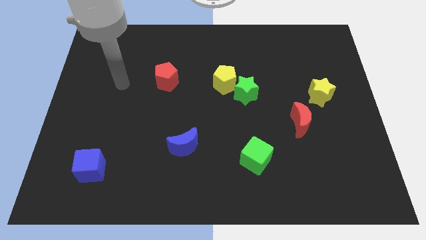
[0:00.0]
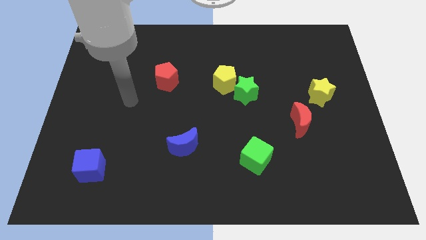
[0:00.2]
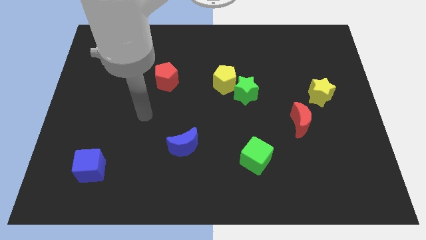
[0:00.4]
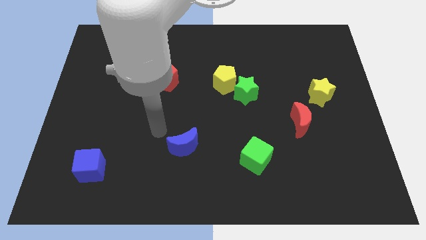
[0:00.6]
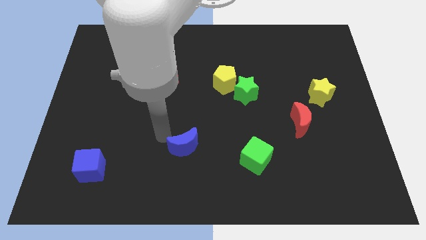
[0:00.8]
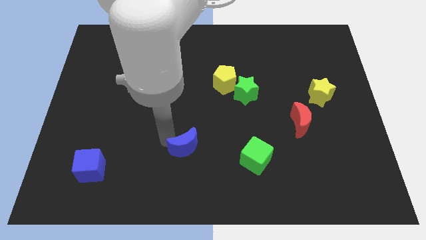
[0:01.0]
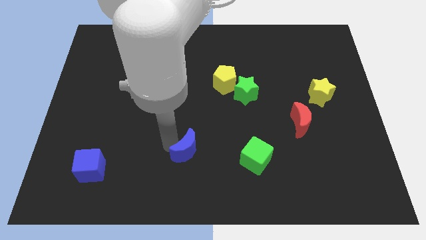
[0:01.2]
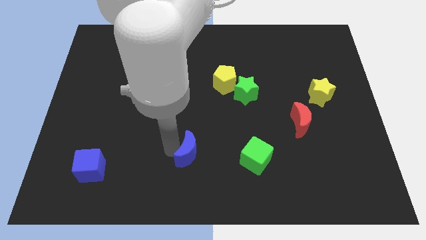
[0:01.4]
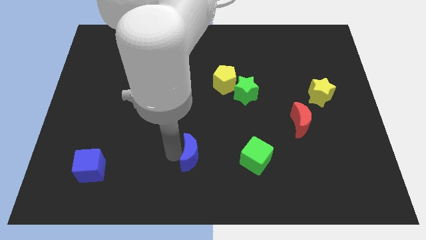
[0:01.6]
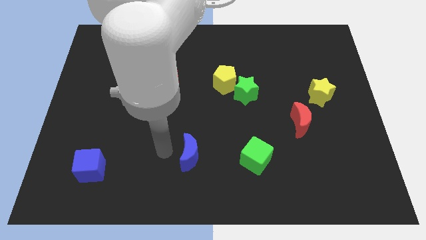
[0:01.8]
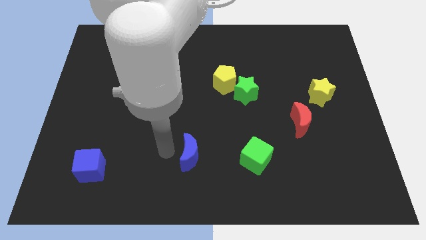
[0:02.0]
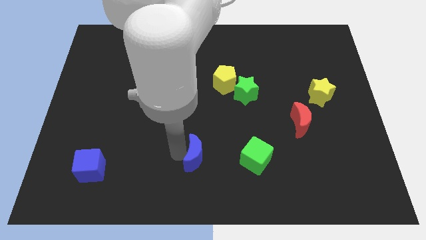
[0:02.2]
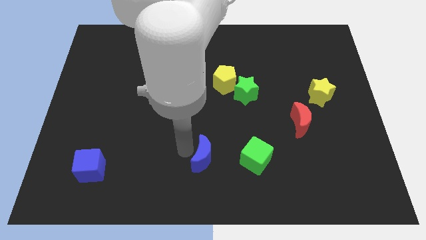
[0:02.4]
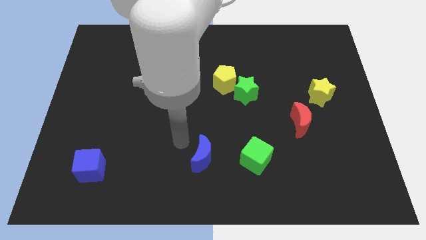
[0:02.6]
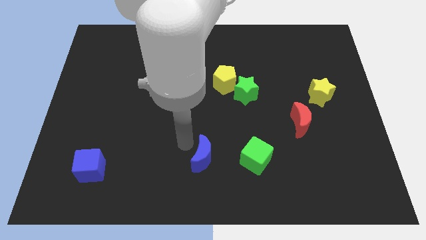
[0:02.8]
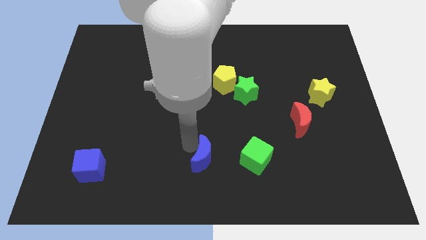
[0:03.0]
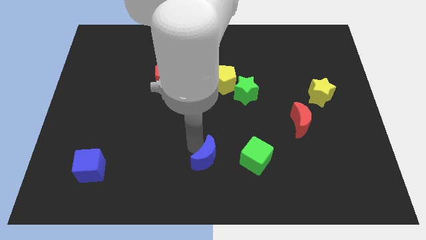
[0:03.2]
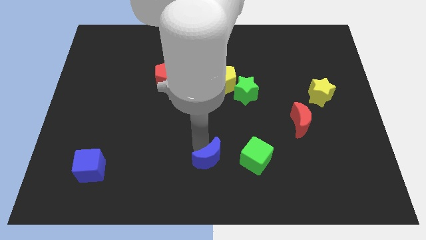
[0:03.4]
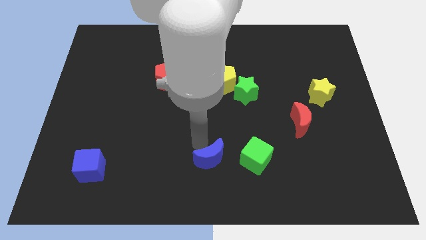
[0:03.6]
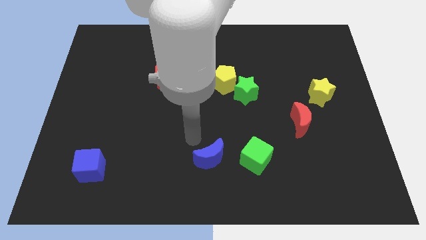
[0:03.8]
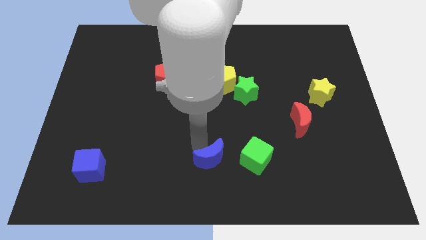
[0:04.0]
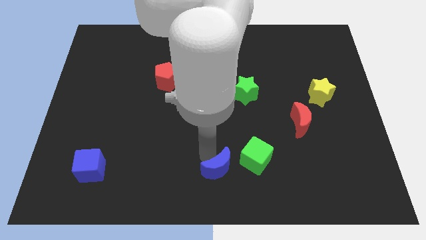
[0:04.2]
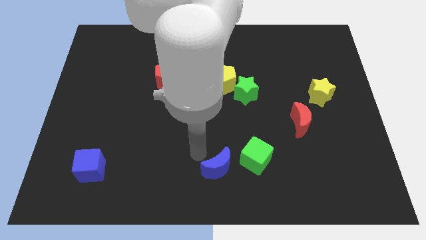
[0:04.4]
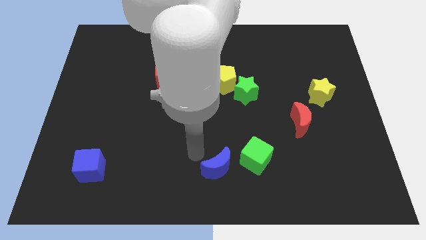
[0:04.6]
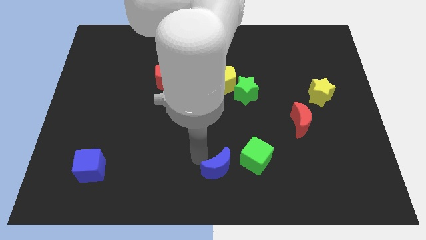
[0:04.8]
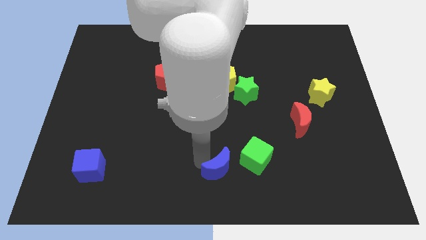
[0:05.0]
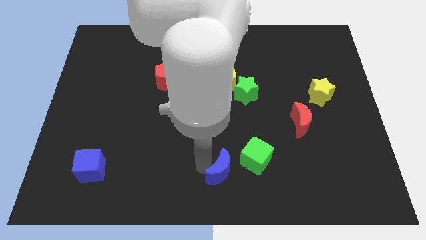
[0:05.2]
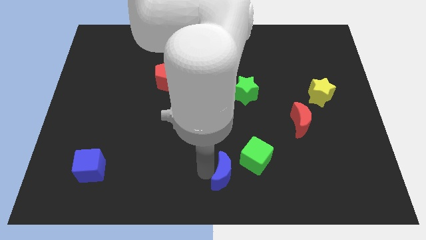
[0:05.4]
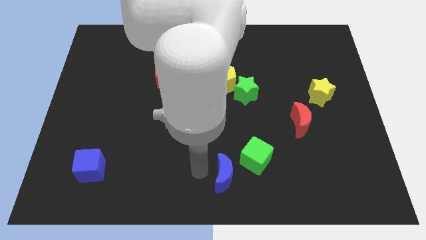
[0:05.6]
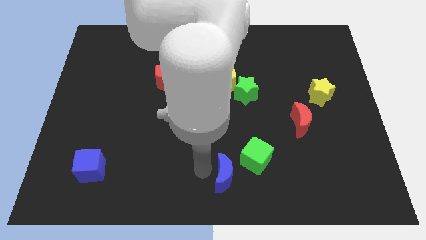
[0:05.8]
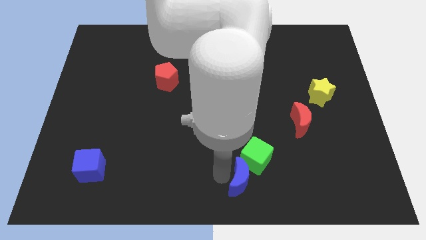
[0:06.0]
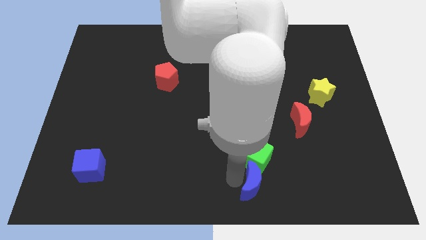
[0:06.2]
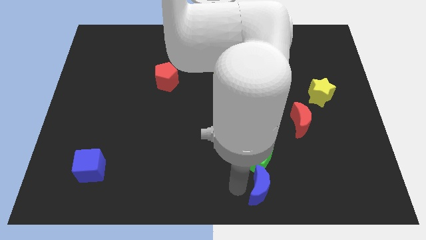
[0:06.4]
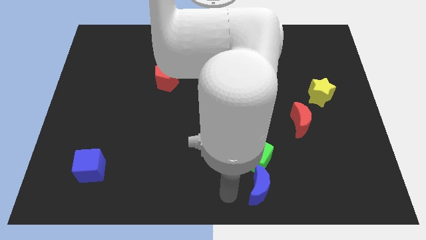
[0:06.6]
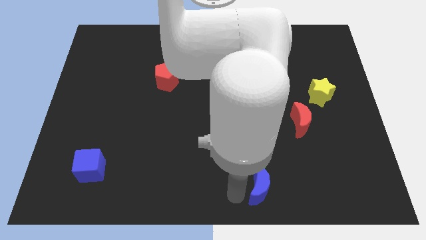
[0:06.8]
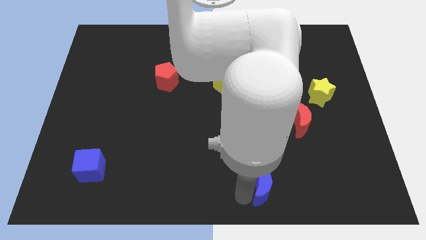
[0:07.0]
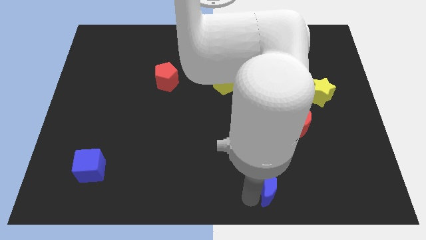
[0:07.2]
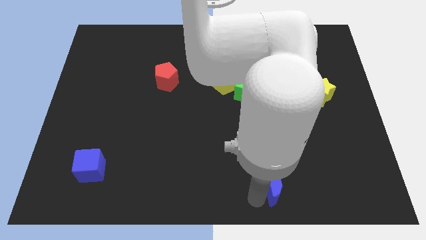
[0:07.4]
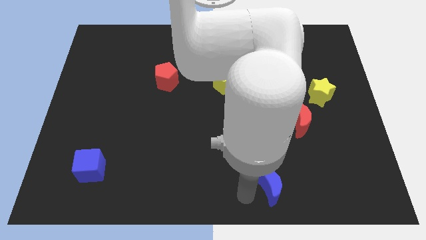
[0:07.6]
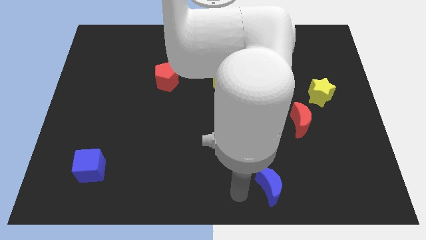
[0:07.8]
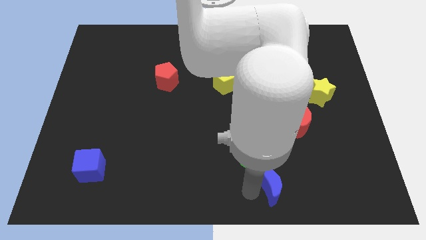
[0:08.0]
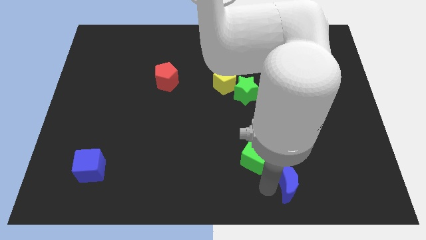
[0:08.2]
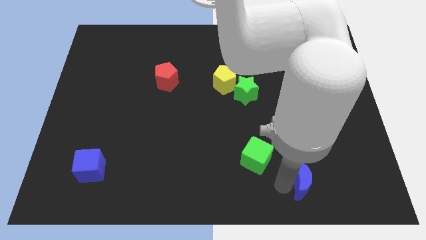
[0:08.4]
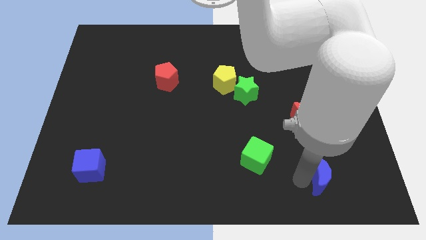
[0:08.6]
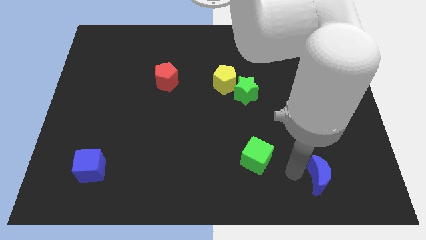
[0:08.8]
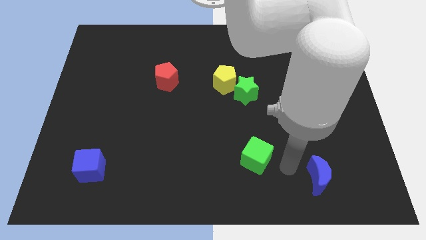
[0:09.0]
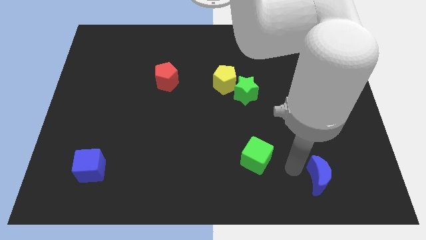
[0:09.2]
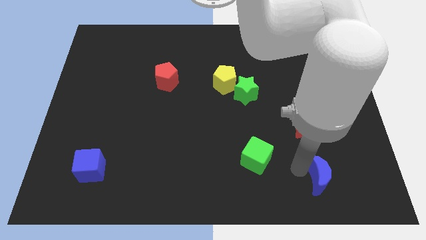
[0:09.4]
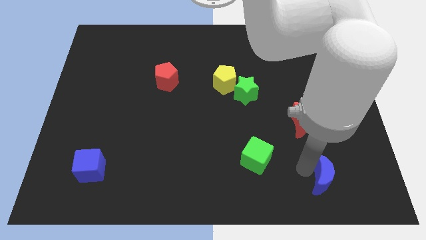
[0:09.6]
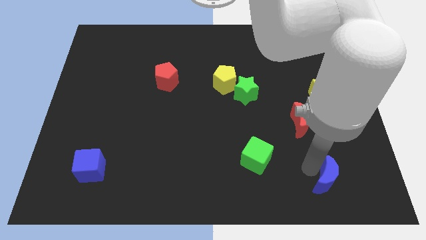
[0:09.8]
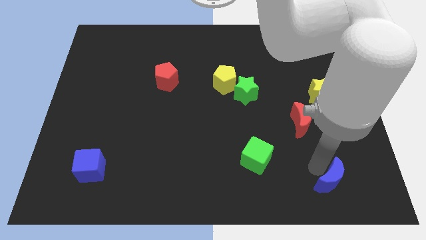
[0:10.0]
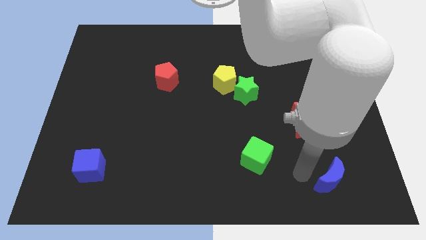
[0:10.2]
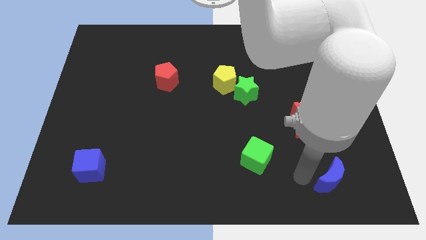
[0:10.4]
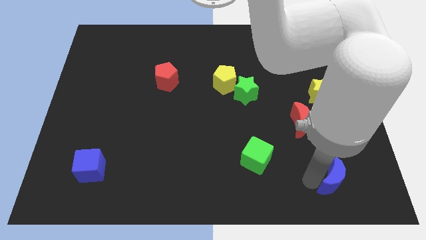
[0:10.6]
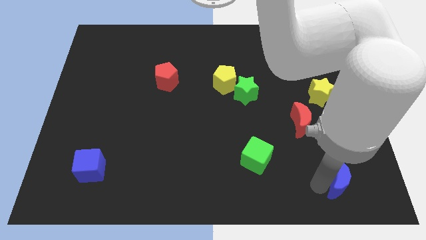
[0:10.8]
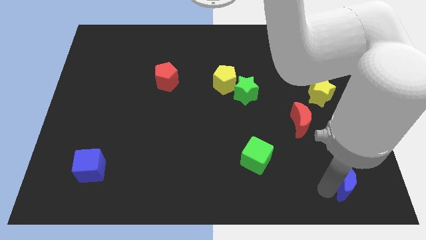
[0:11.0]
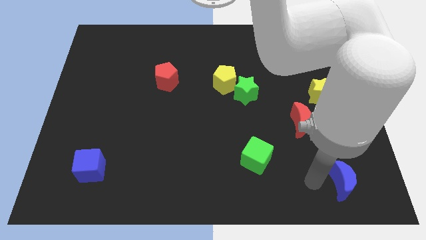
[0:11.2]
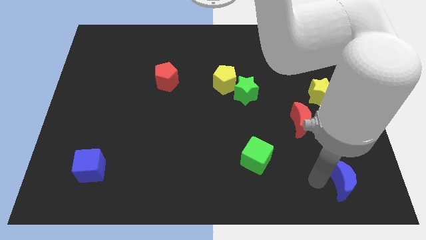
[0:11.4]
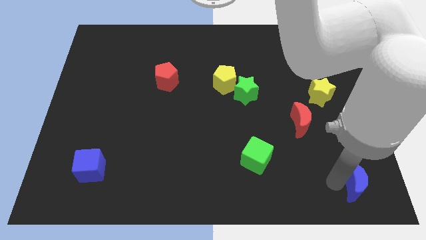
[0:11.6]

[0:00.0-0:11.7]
slide the blue moon to the lower right corner
